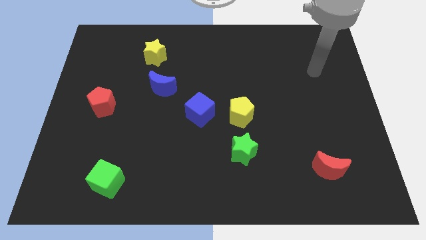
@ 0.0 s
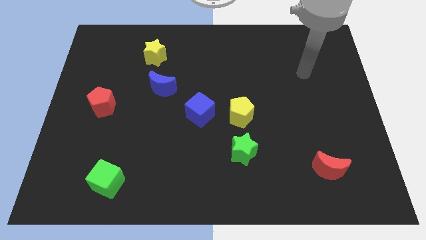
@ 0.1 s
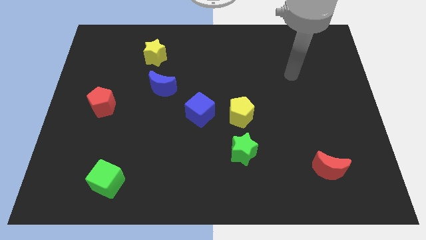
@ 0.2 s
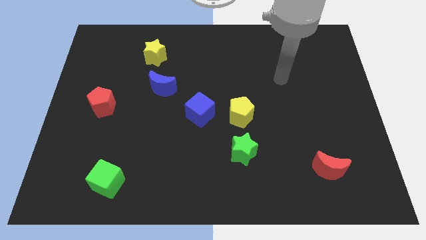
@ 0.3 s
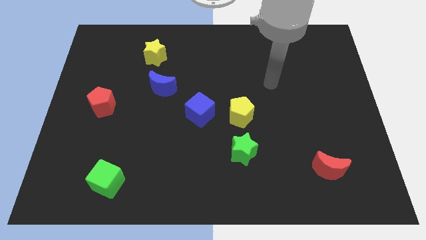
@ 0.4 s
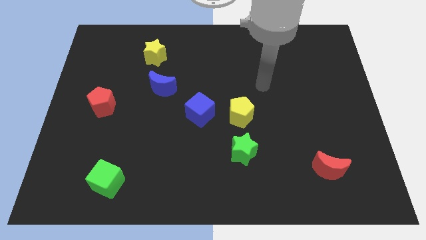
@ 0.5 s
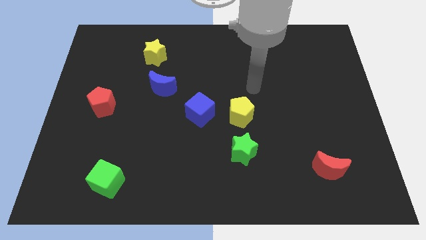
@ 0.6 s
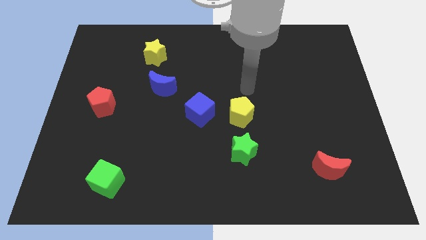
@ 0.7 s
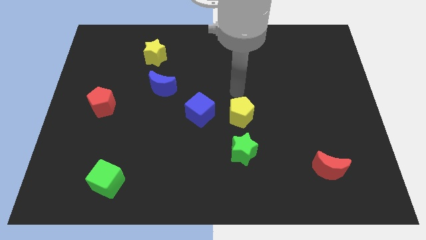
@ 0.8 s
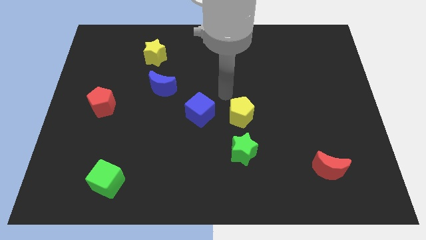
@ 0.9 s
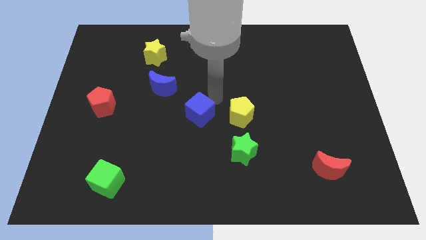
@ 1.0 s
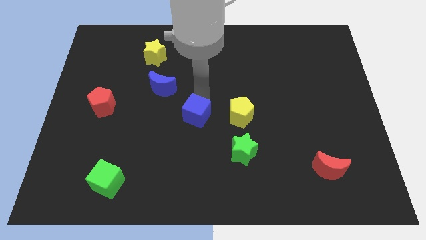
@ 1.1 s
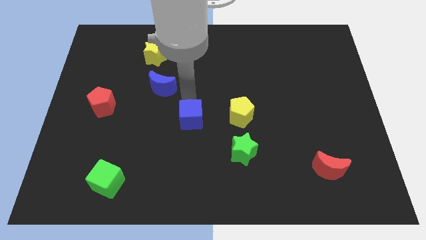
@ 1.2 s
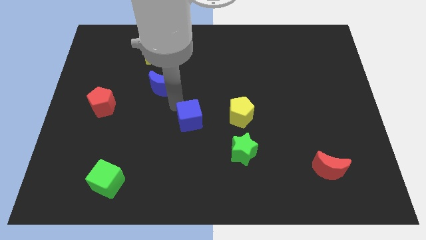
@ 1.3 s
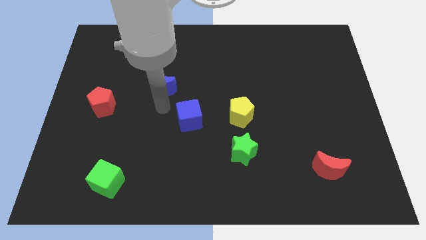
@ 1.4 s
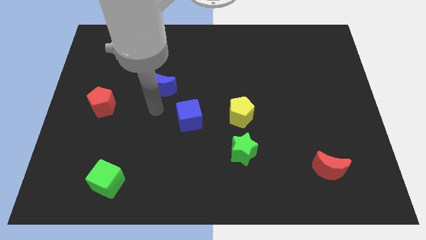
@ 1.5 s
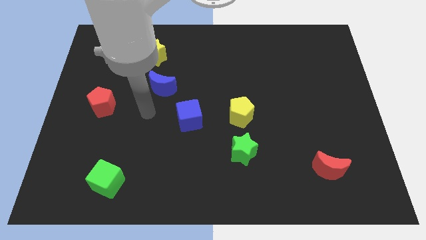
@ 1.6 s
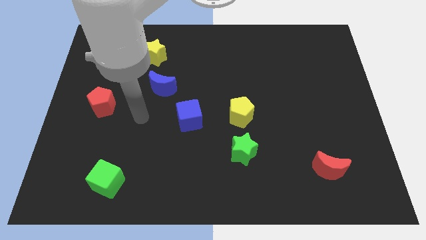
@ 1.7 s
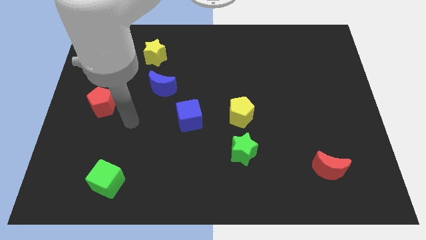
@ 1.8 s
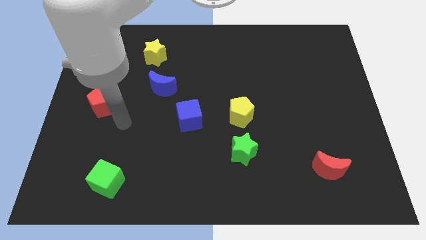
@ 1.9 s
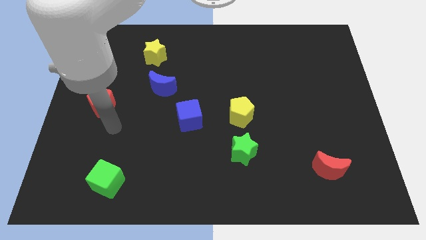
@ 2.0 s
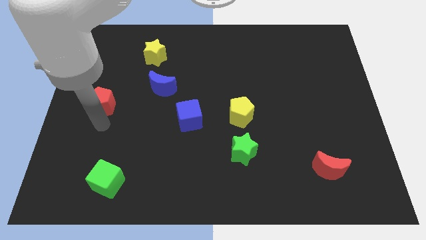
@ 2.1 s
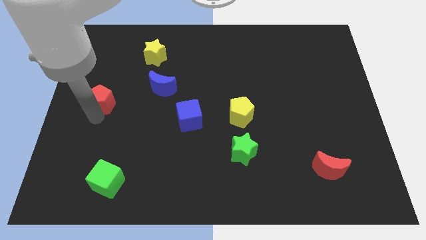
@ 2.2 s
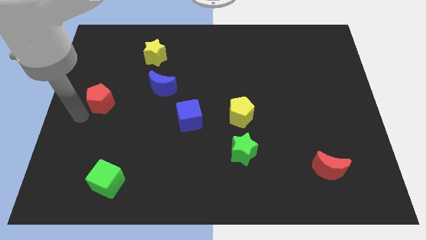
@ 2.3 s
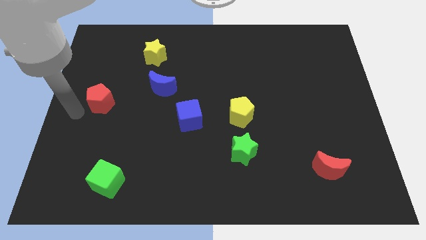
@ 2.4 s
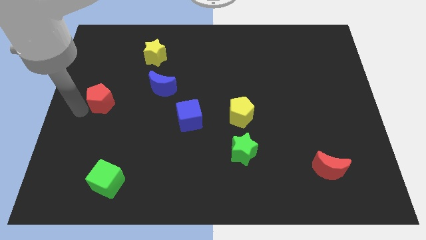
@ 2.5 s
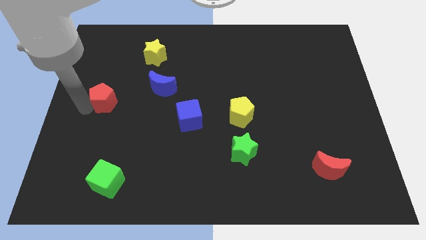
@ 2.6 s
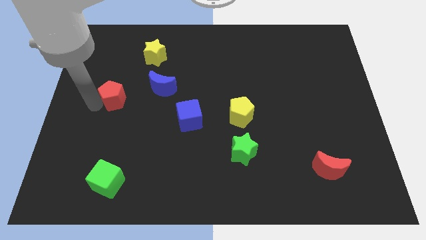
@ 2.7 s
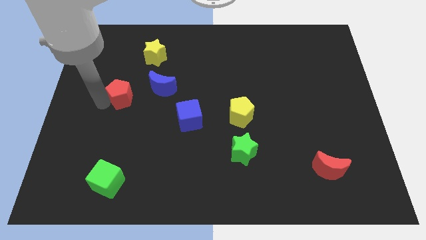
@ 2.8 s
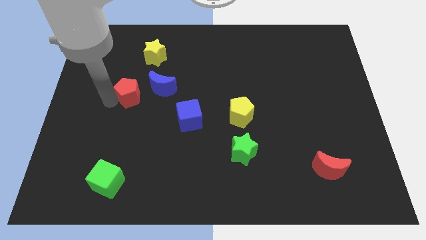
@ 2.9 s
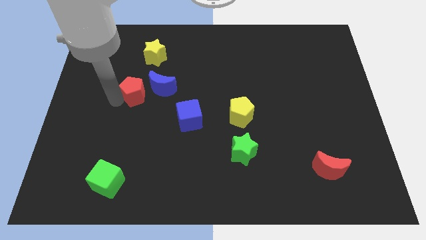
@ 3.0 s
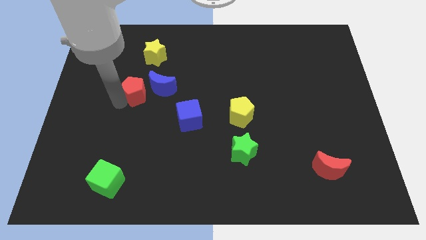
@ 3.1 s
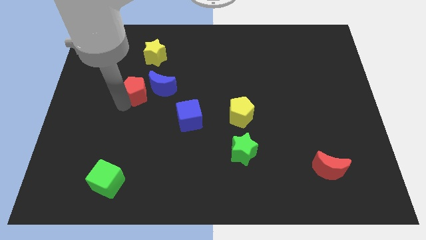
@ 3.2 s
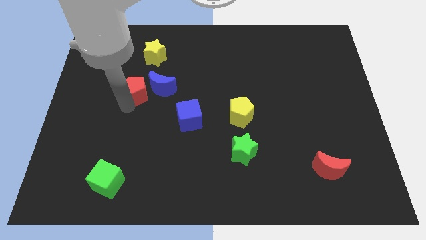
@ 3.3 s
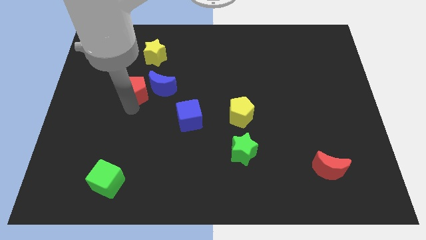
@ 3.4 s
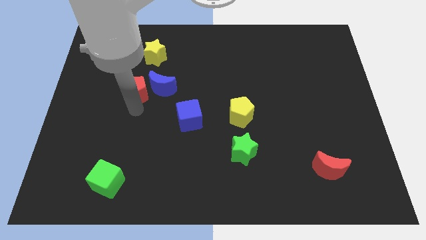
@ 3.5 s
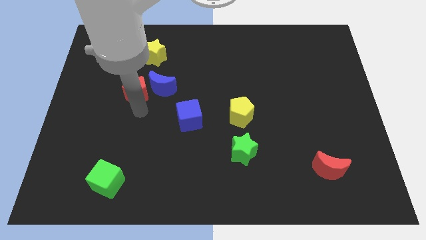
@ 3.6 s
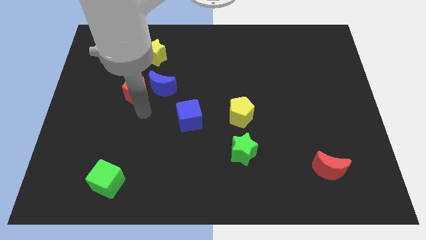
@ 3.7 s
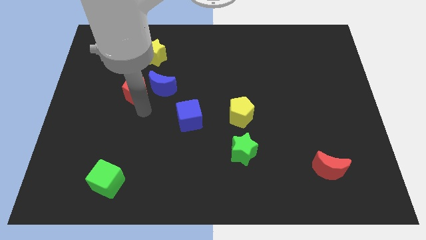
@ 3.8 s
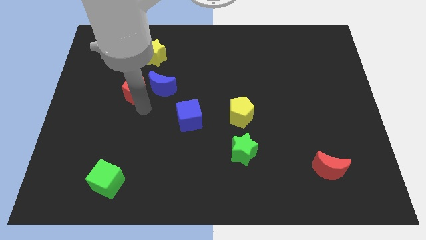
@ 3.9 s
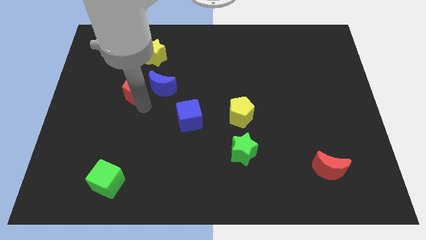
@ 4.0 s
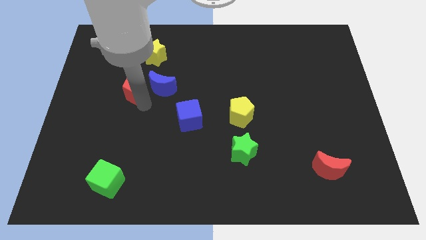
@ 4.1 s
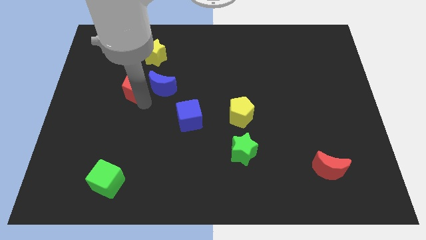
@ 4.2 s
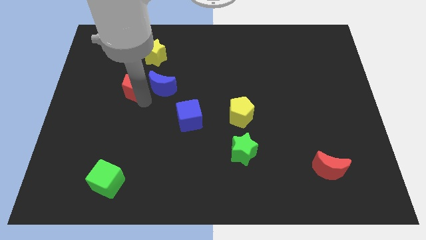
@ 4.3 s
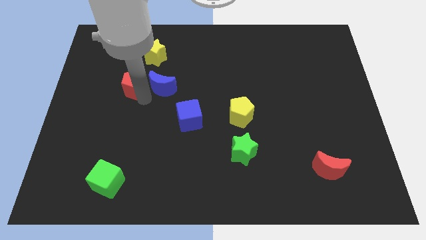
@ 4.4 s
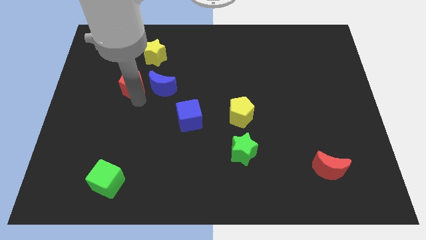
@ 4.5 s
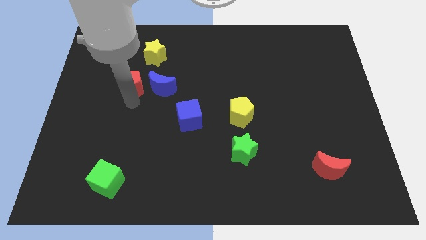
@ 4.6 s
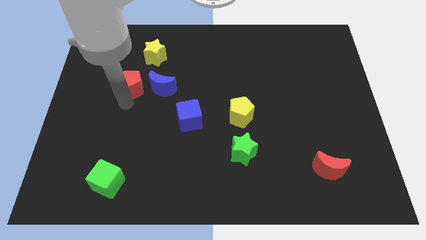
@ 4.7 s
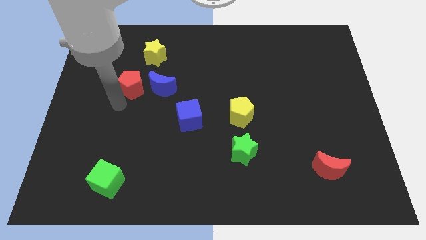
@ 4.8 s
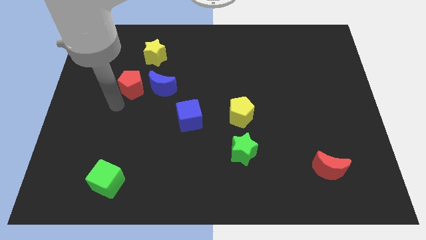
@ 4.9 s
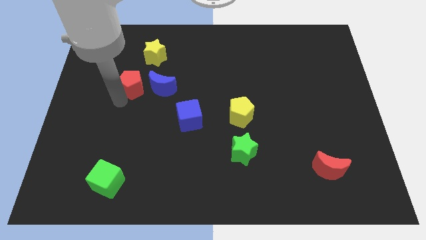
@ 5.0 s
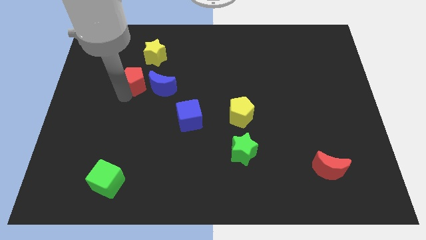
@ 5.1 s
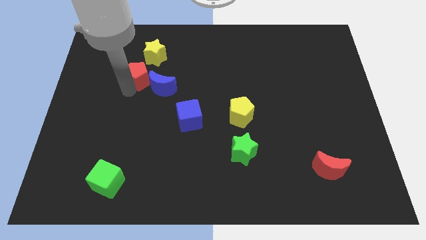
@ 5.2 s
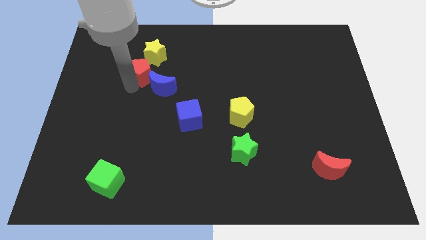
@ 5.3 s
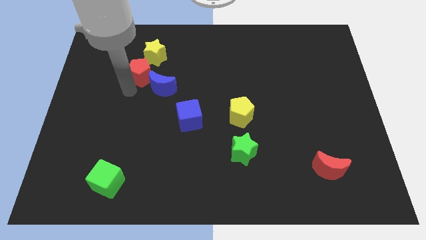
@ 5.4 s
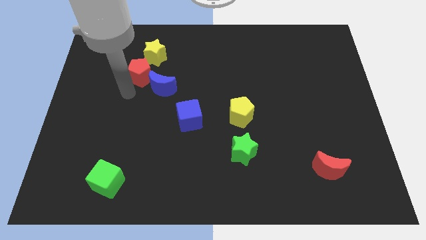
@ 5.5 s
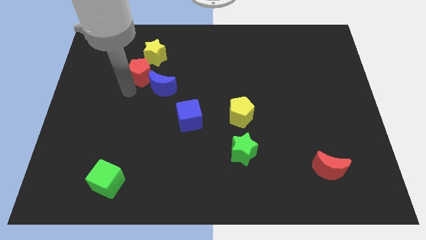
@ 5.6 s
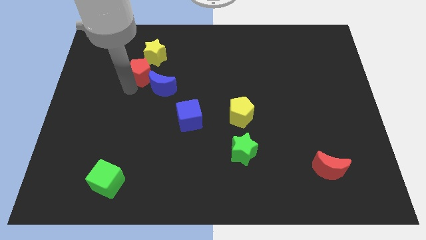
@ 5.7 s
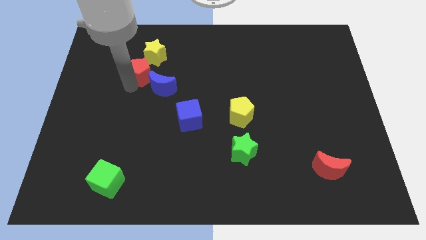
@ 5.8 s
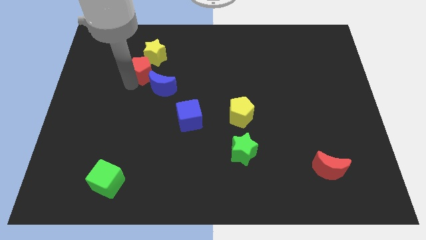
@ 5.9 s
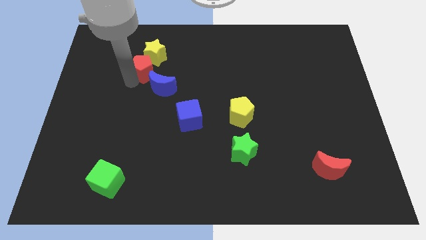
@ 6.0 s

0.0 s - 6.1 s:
move the red pentagon towards the yellow star
